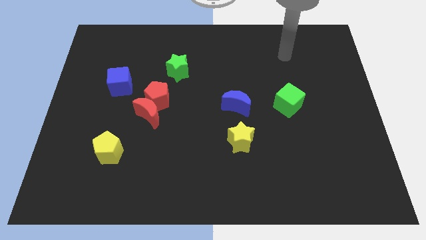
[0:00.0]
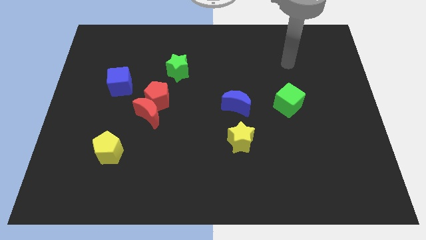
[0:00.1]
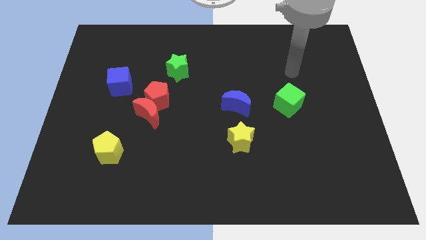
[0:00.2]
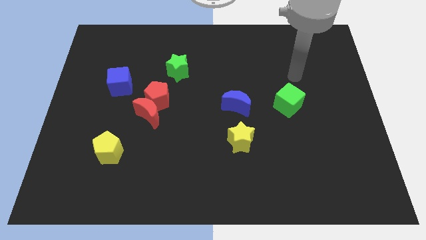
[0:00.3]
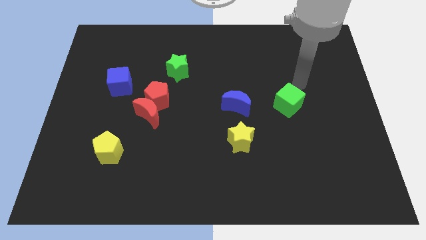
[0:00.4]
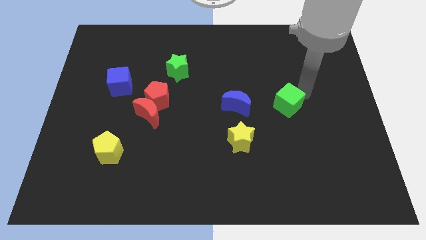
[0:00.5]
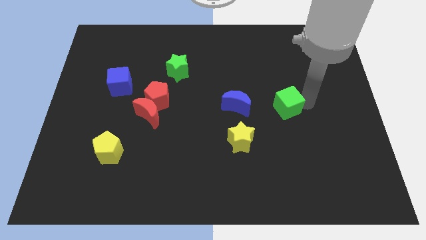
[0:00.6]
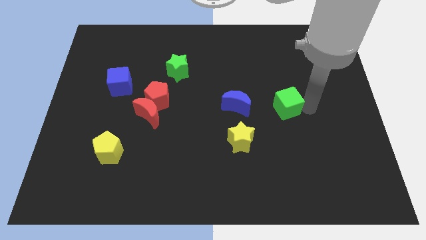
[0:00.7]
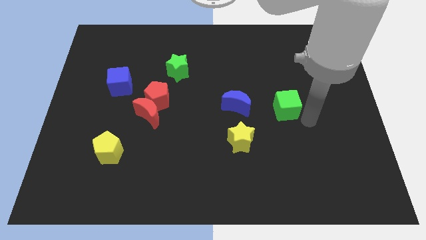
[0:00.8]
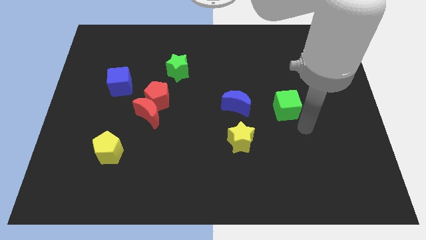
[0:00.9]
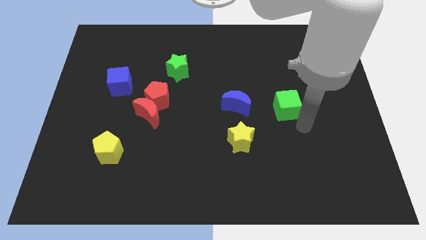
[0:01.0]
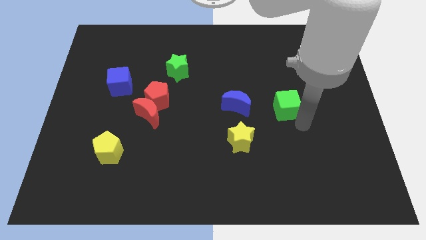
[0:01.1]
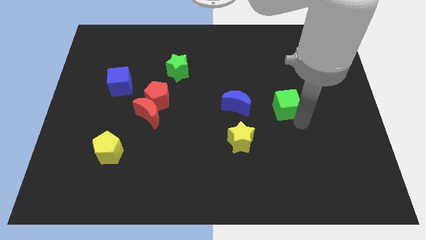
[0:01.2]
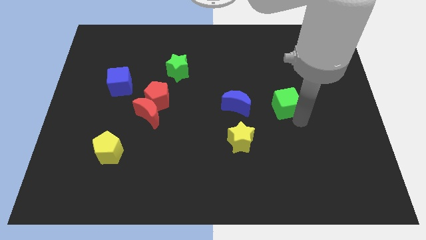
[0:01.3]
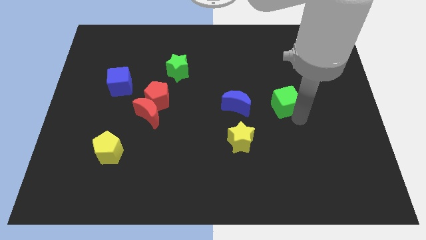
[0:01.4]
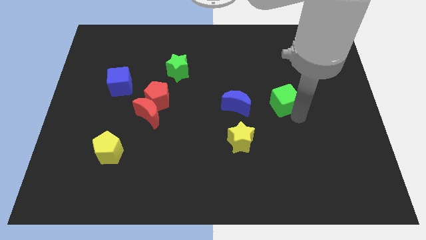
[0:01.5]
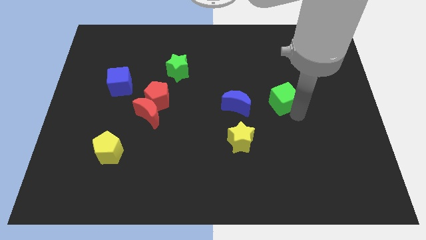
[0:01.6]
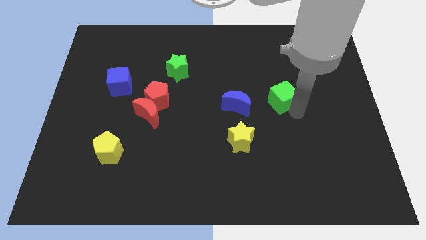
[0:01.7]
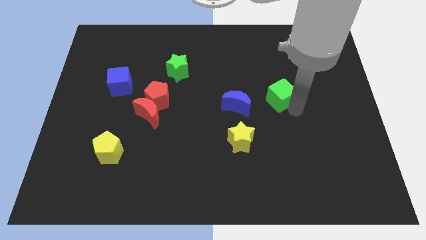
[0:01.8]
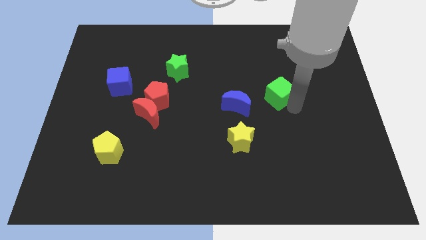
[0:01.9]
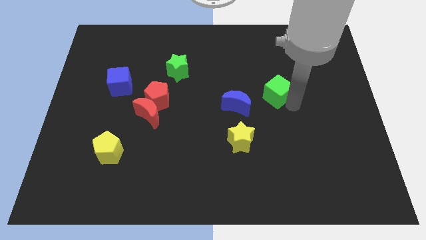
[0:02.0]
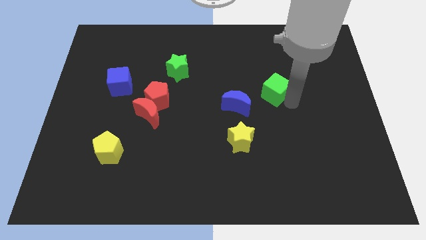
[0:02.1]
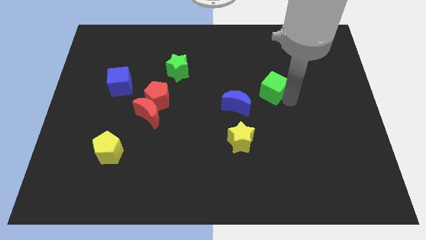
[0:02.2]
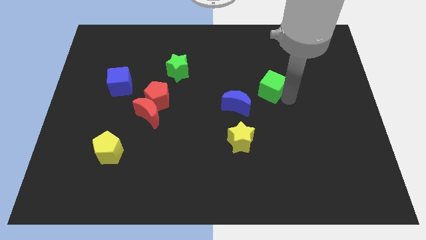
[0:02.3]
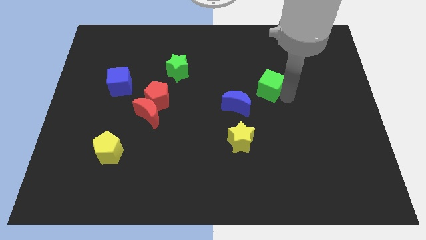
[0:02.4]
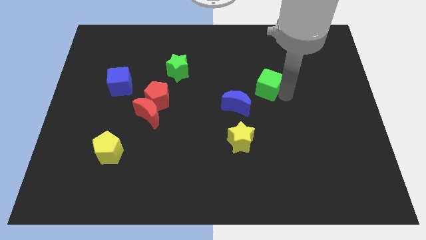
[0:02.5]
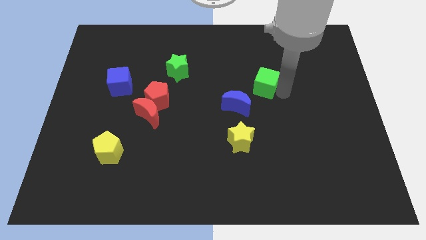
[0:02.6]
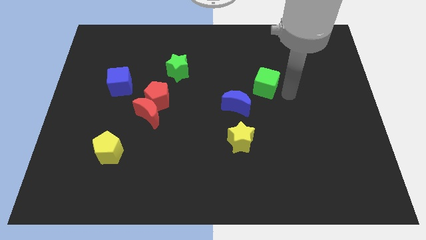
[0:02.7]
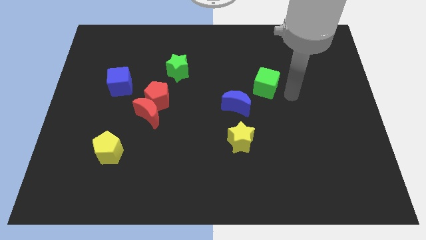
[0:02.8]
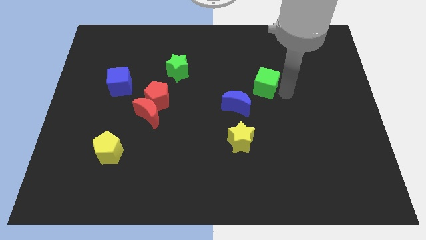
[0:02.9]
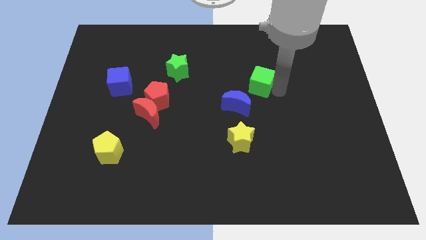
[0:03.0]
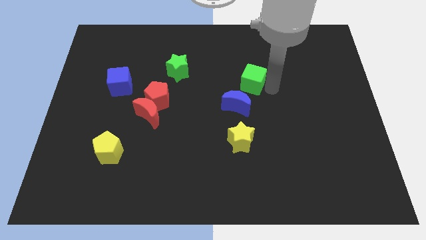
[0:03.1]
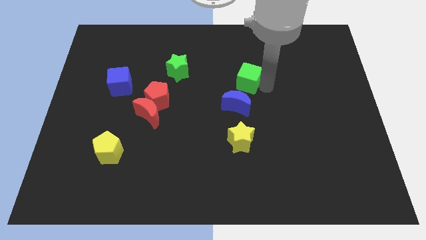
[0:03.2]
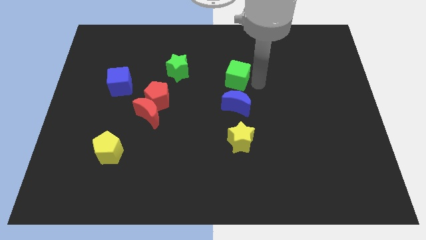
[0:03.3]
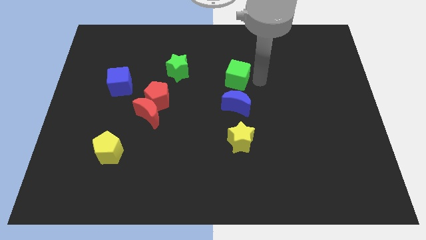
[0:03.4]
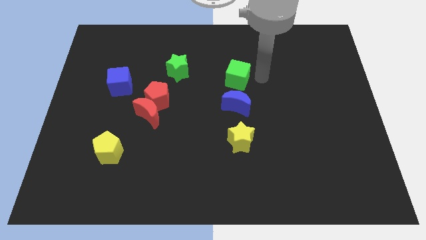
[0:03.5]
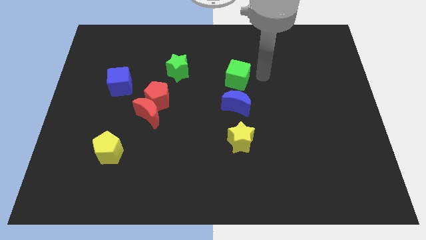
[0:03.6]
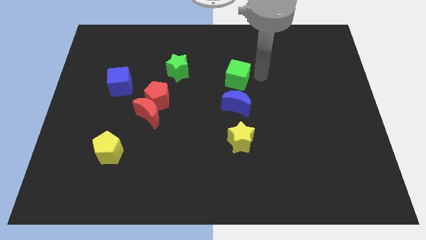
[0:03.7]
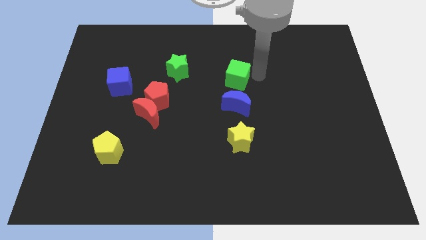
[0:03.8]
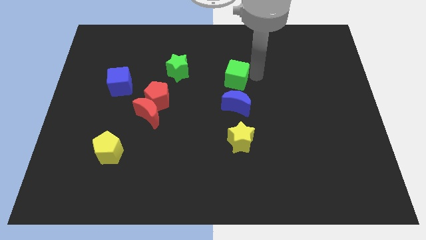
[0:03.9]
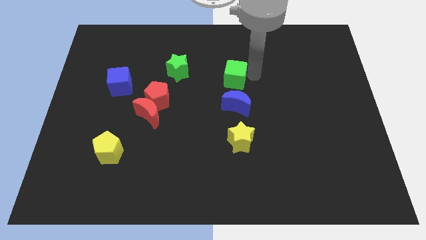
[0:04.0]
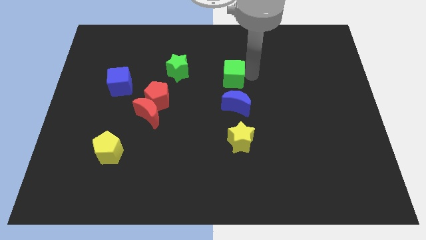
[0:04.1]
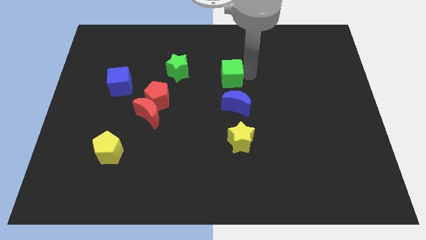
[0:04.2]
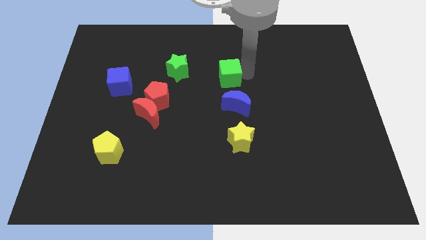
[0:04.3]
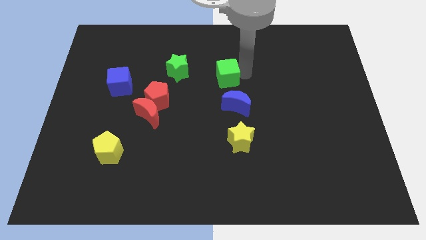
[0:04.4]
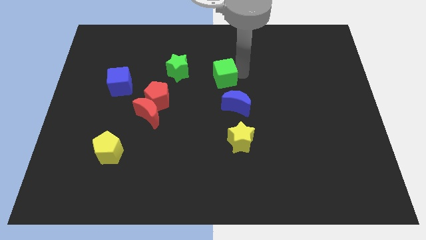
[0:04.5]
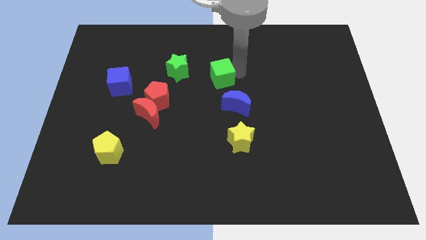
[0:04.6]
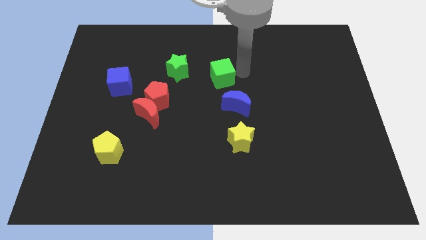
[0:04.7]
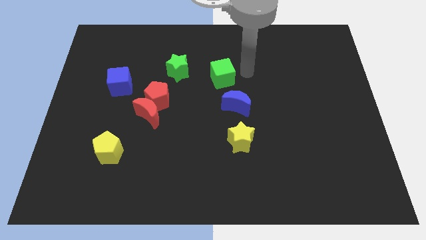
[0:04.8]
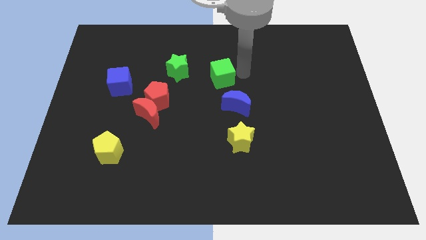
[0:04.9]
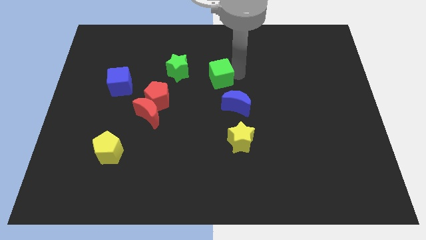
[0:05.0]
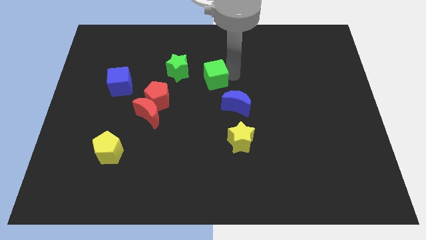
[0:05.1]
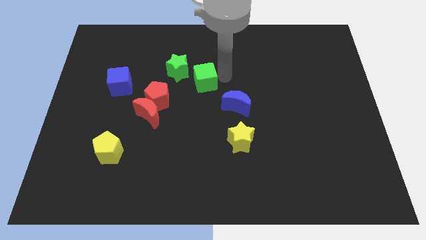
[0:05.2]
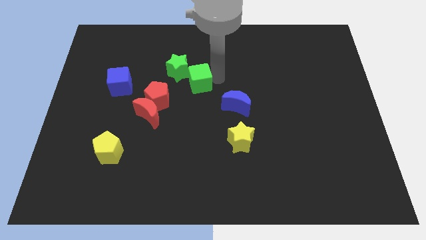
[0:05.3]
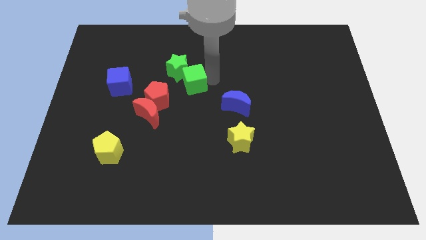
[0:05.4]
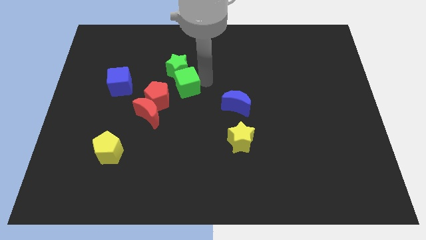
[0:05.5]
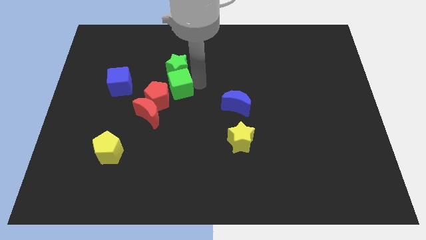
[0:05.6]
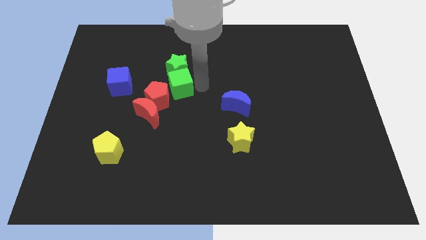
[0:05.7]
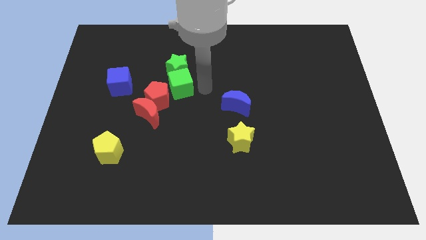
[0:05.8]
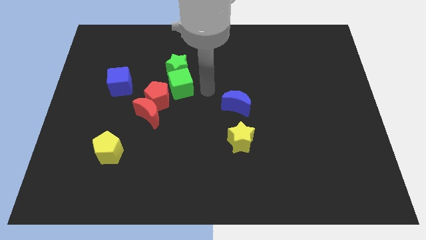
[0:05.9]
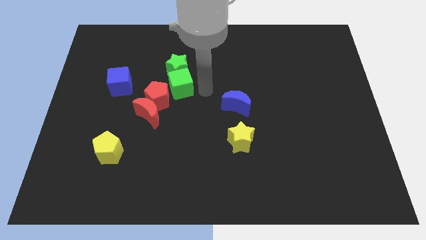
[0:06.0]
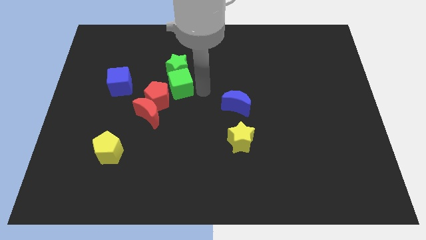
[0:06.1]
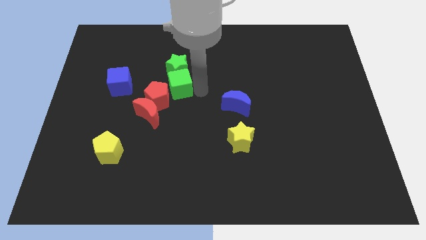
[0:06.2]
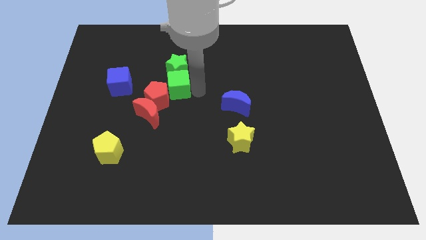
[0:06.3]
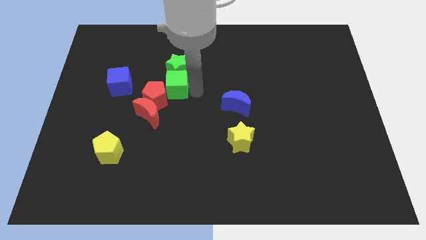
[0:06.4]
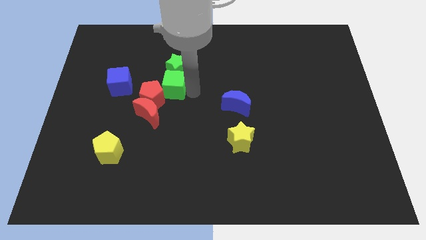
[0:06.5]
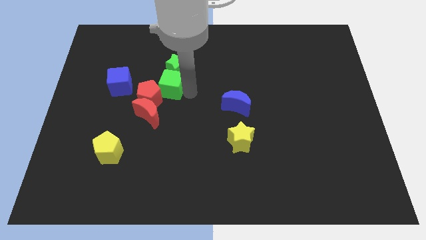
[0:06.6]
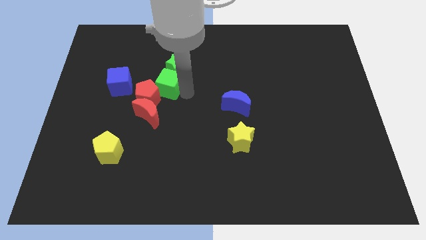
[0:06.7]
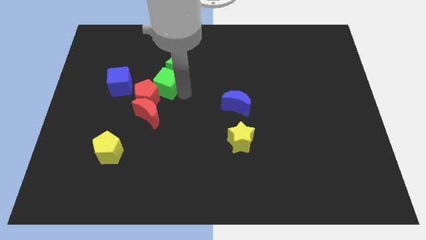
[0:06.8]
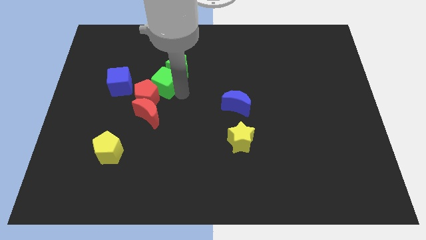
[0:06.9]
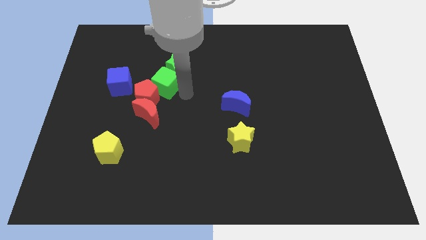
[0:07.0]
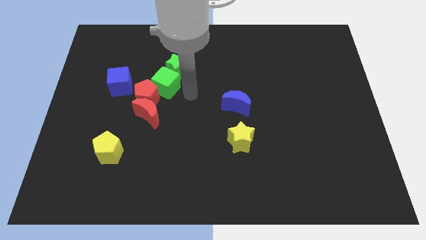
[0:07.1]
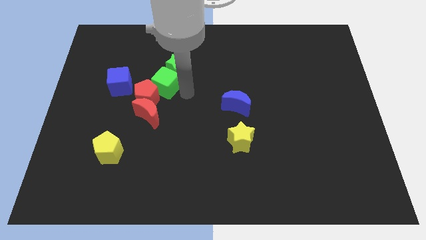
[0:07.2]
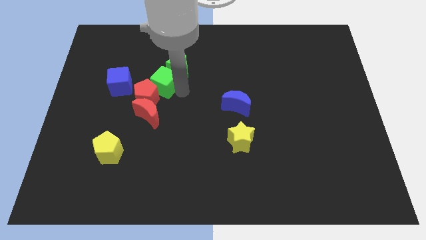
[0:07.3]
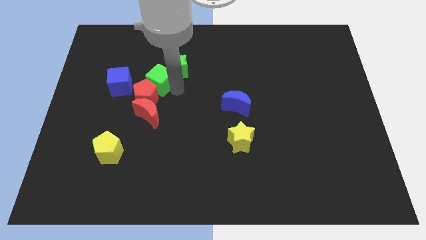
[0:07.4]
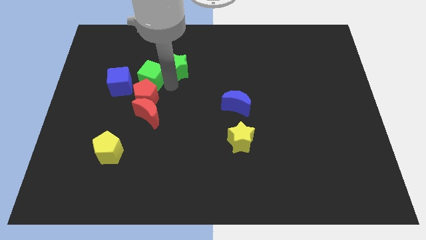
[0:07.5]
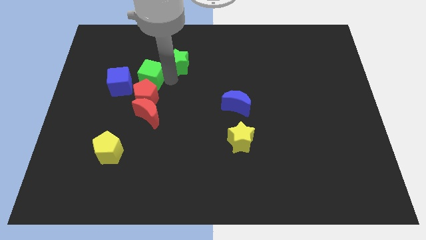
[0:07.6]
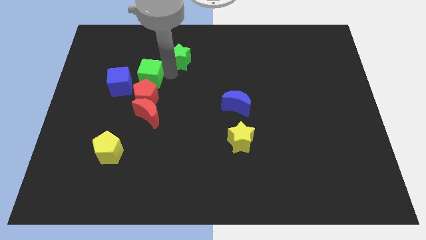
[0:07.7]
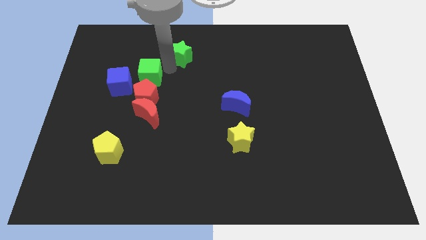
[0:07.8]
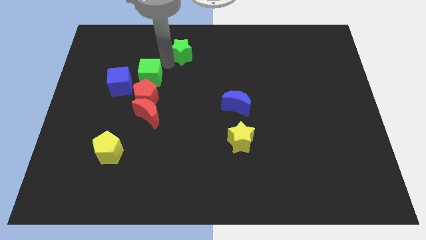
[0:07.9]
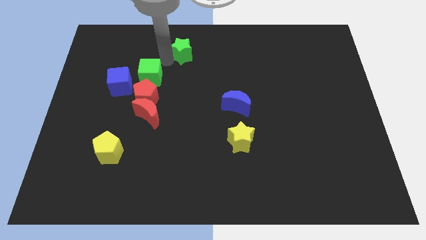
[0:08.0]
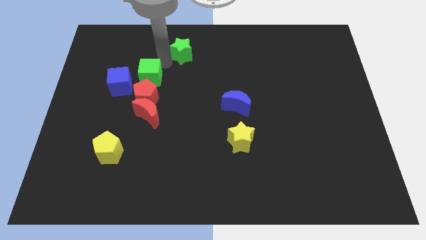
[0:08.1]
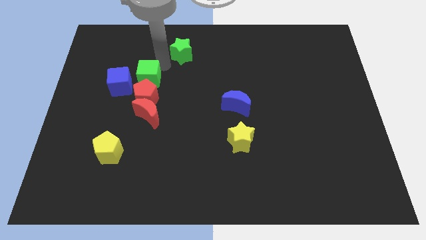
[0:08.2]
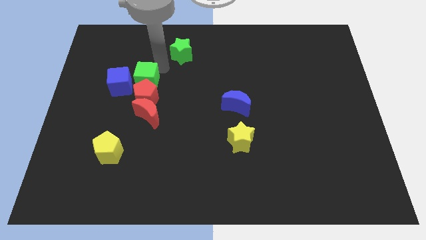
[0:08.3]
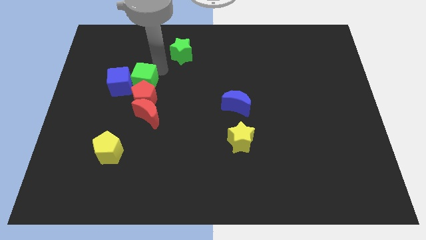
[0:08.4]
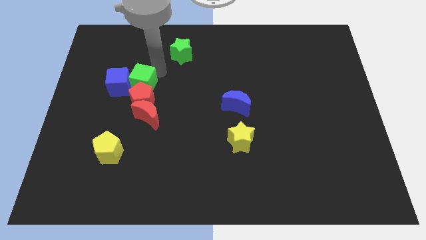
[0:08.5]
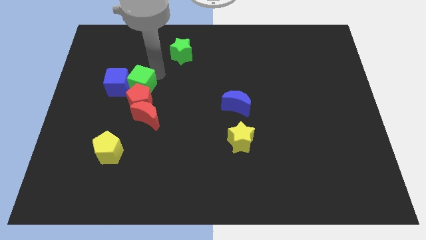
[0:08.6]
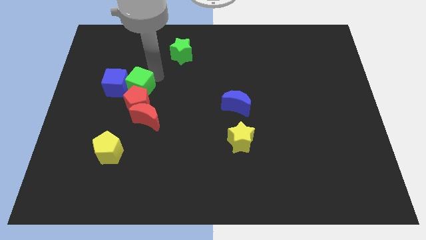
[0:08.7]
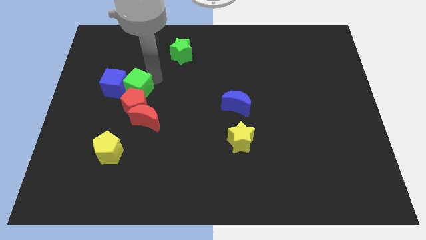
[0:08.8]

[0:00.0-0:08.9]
push the green cube diagonally up and to the left of the red moon
